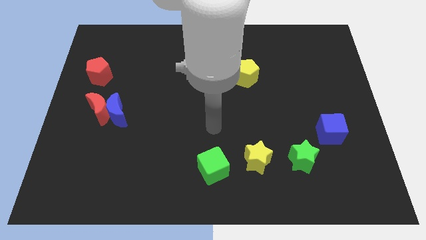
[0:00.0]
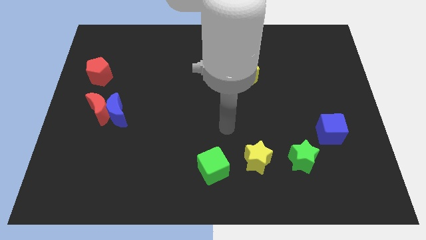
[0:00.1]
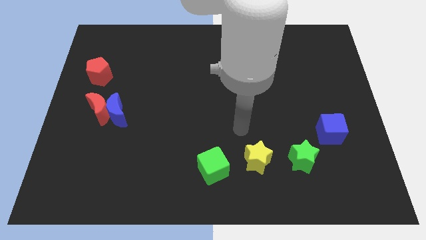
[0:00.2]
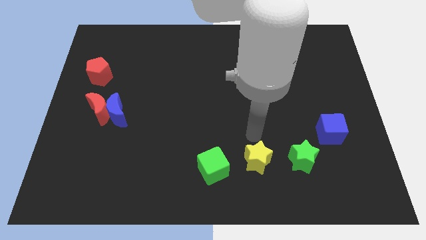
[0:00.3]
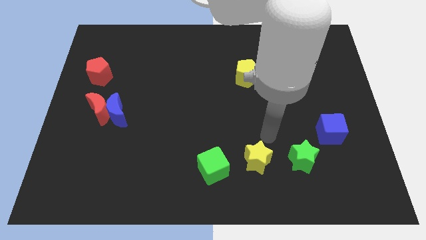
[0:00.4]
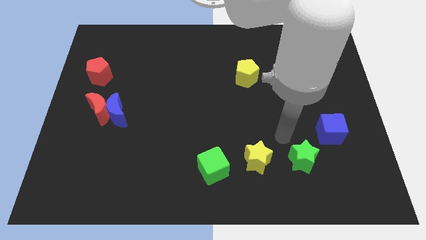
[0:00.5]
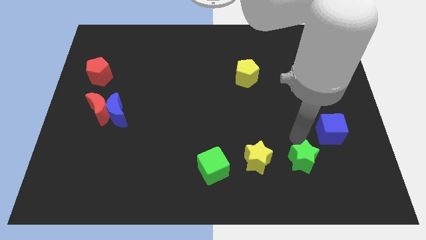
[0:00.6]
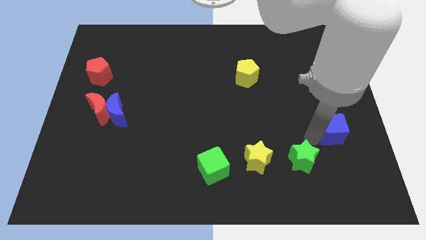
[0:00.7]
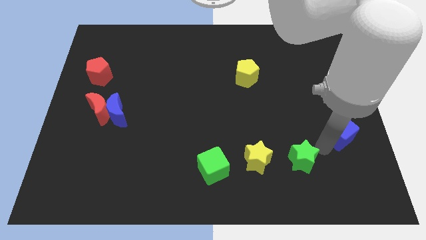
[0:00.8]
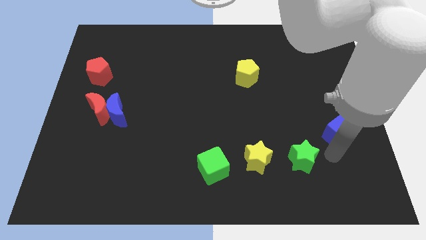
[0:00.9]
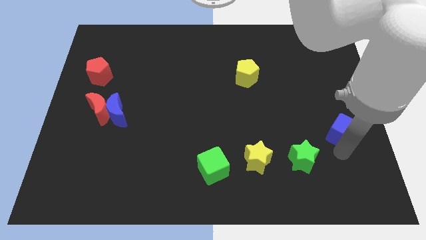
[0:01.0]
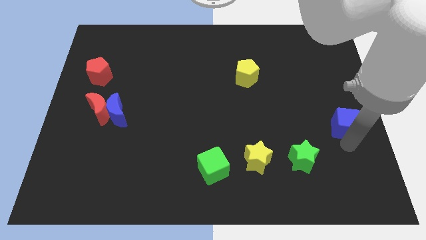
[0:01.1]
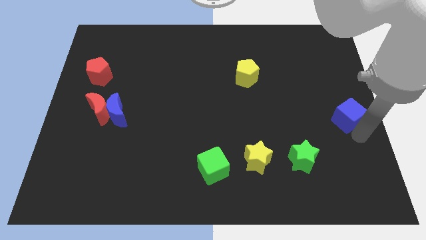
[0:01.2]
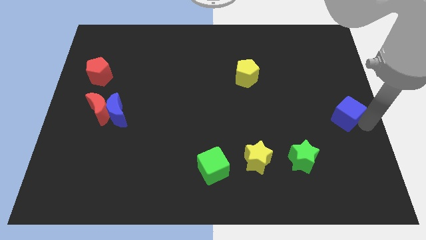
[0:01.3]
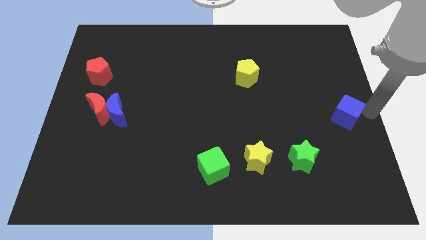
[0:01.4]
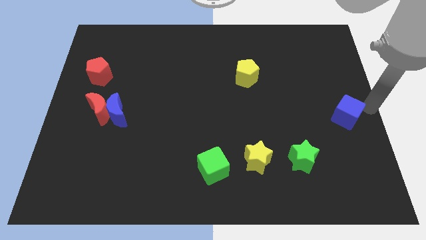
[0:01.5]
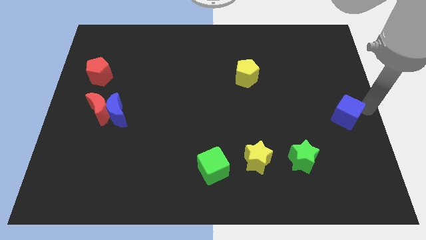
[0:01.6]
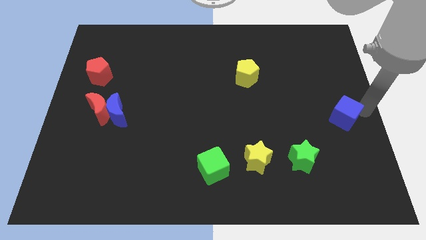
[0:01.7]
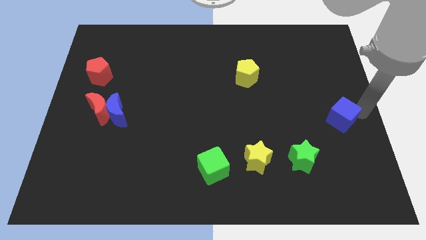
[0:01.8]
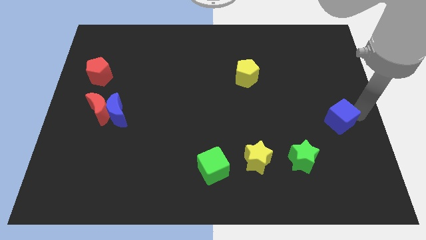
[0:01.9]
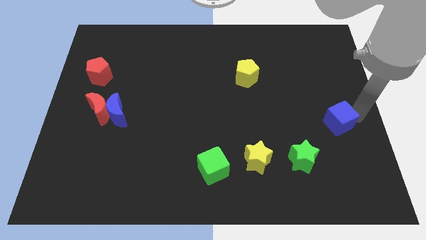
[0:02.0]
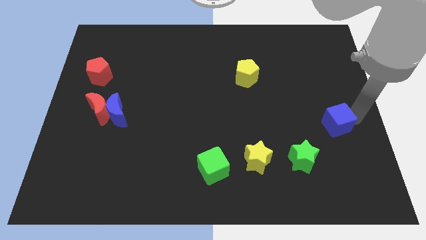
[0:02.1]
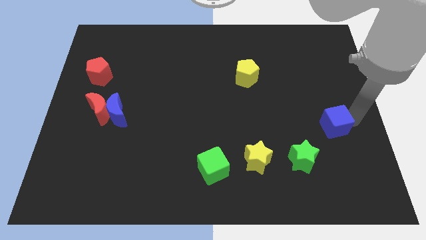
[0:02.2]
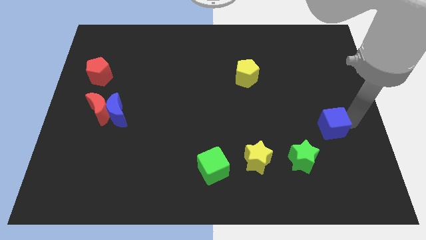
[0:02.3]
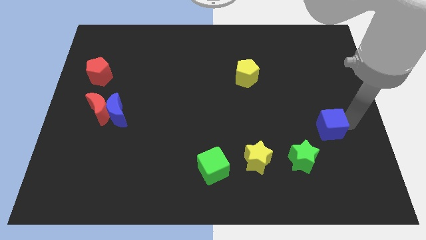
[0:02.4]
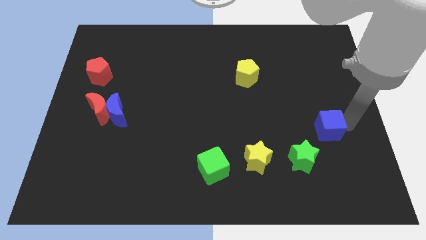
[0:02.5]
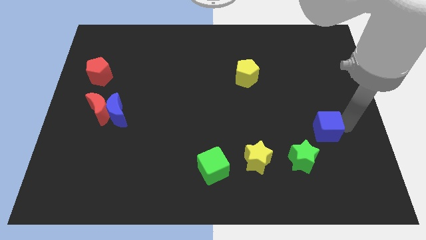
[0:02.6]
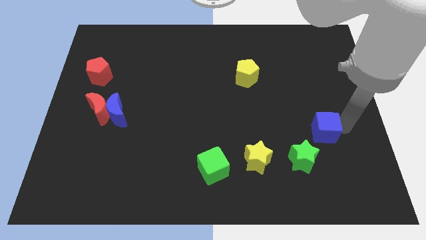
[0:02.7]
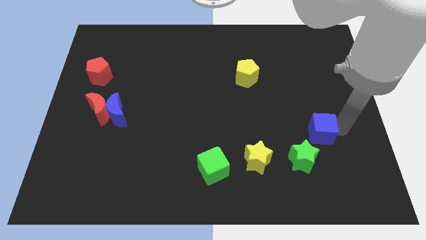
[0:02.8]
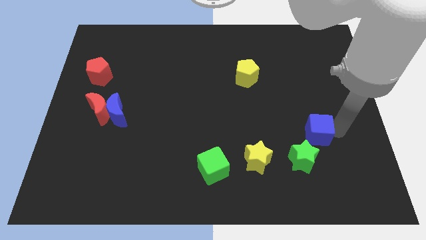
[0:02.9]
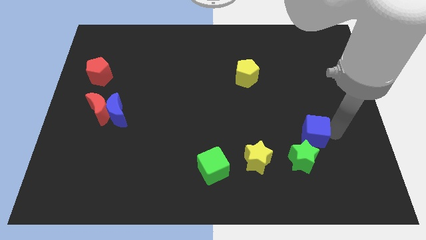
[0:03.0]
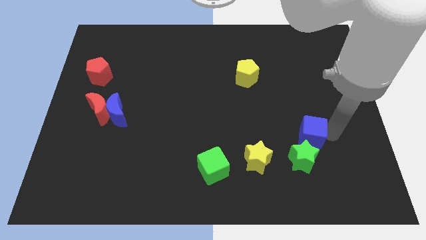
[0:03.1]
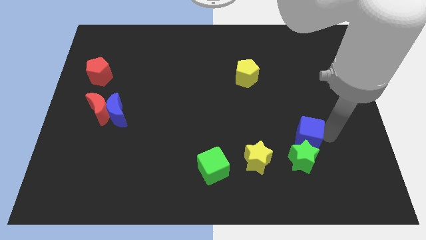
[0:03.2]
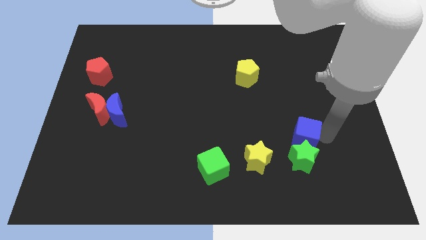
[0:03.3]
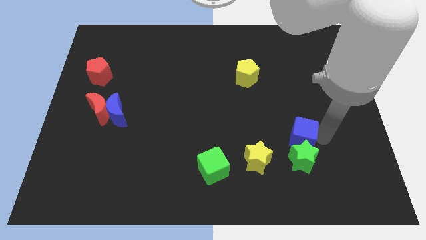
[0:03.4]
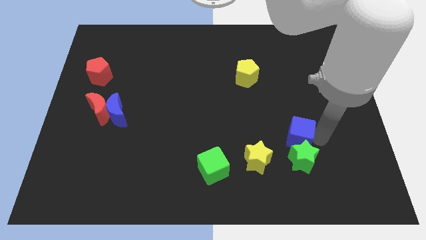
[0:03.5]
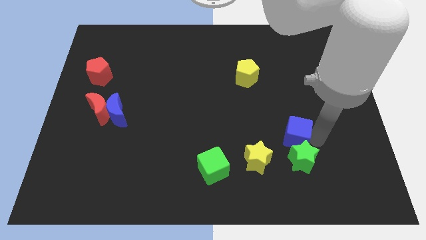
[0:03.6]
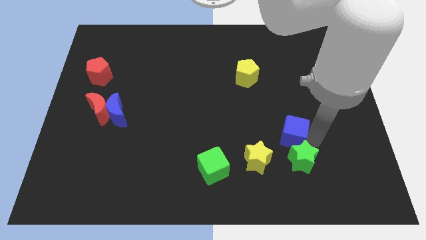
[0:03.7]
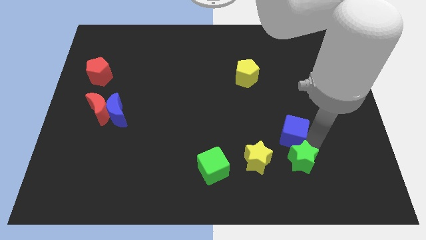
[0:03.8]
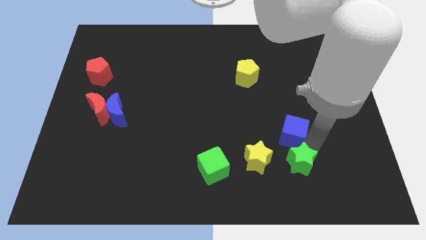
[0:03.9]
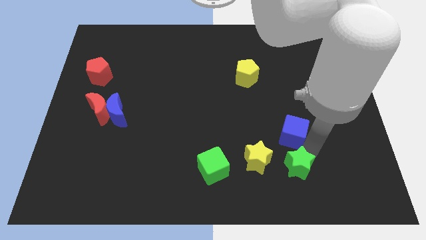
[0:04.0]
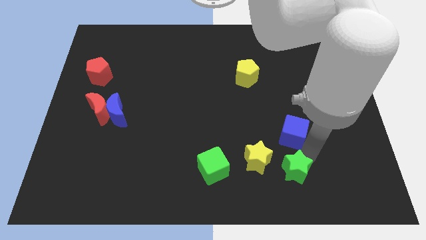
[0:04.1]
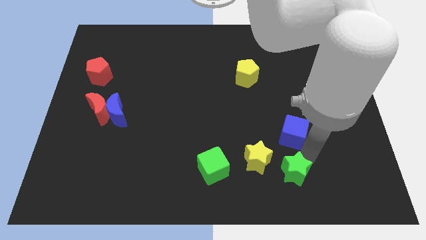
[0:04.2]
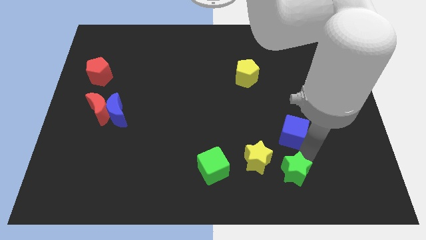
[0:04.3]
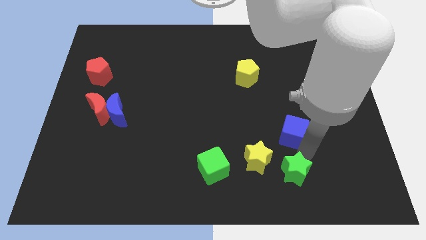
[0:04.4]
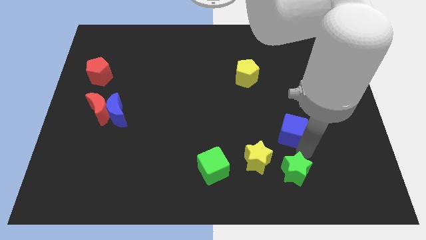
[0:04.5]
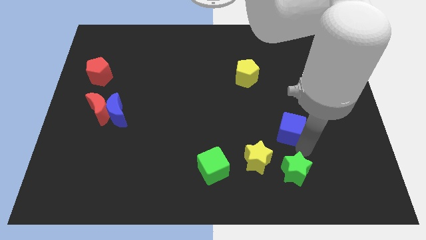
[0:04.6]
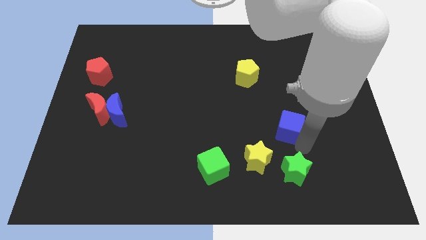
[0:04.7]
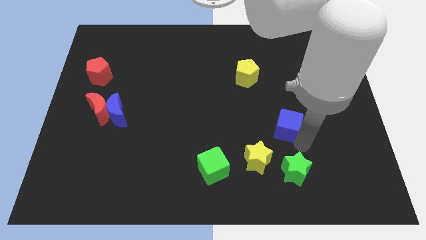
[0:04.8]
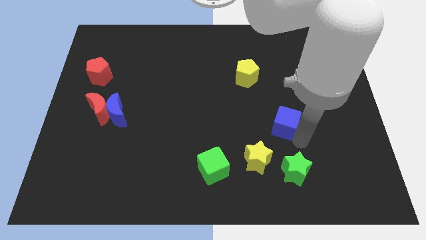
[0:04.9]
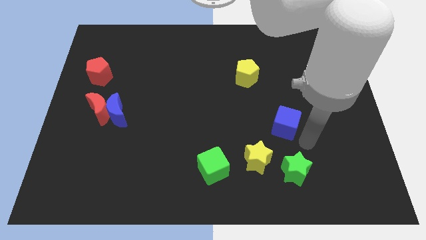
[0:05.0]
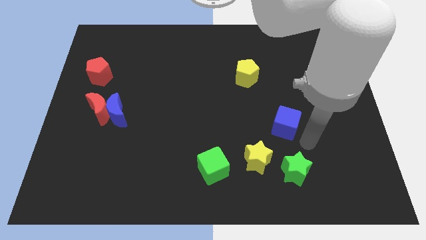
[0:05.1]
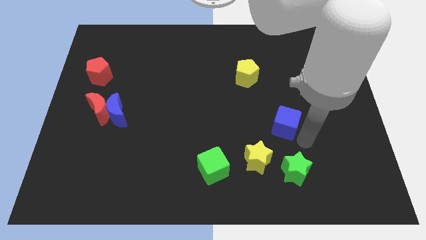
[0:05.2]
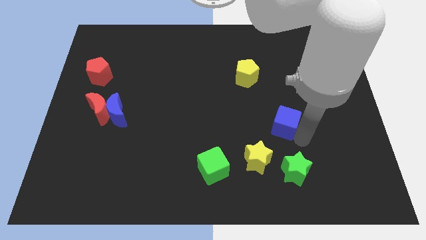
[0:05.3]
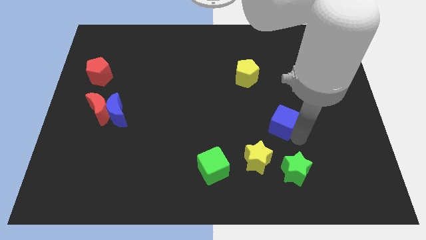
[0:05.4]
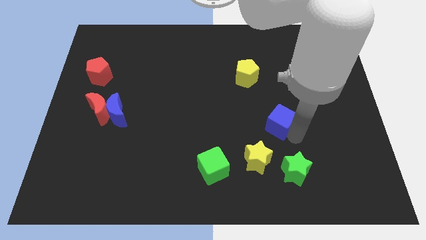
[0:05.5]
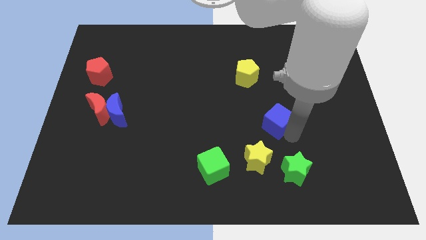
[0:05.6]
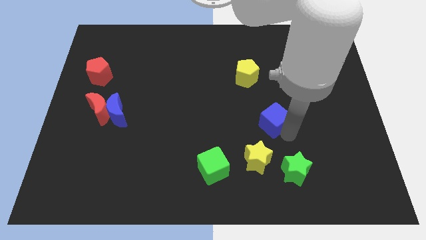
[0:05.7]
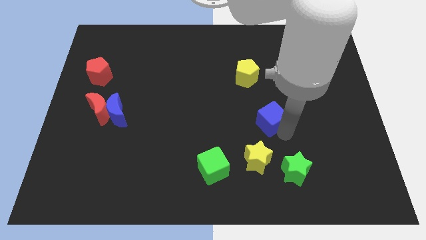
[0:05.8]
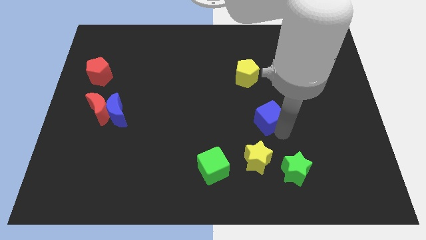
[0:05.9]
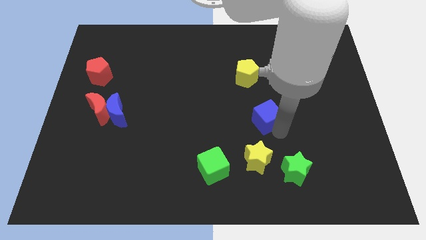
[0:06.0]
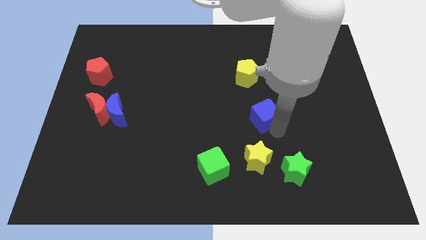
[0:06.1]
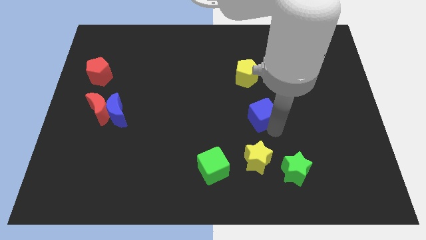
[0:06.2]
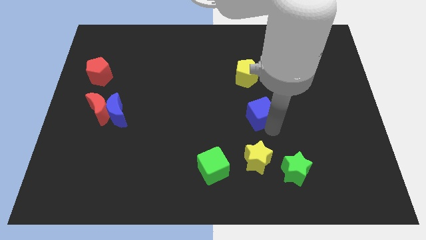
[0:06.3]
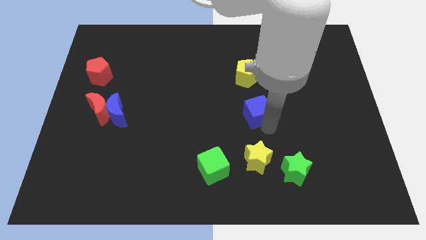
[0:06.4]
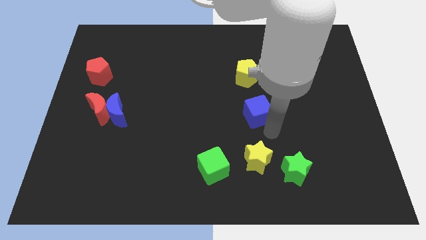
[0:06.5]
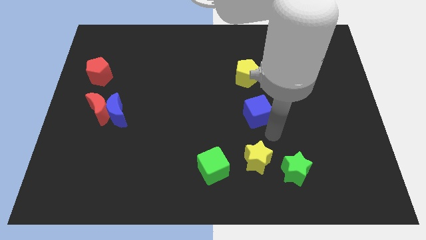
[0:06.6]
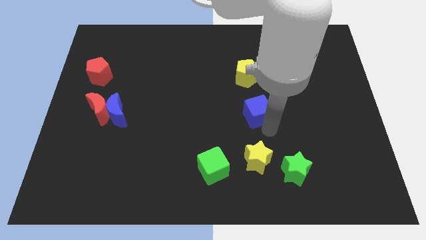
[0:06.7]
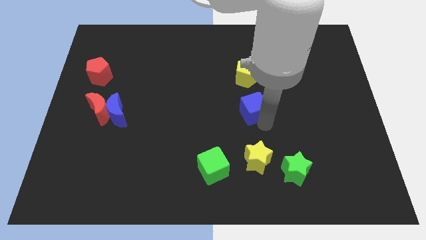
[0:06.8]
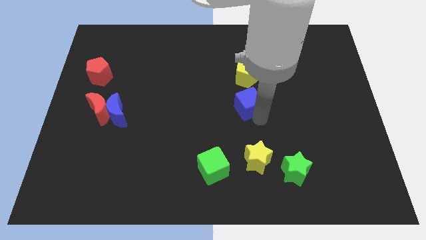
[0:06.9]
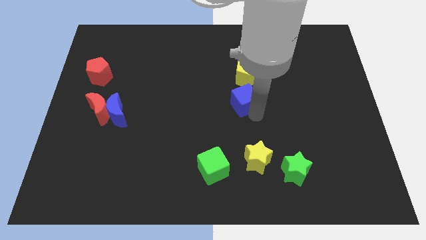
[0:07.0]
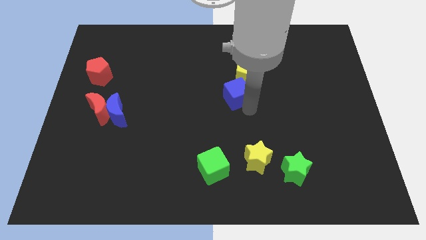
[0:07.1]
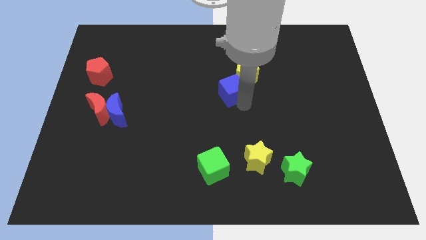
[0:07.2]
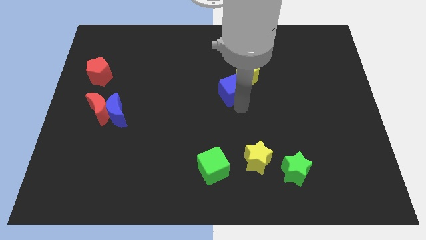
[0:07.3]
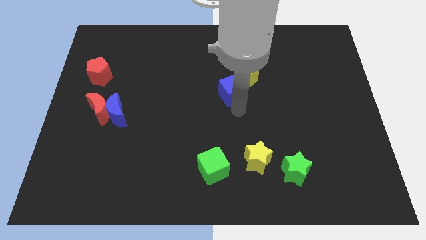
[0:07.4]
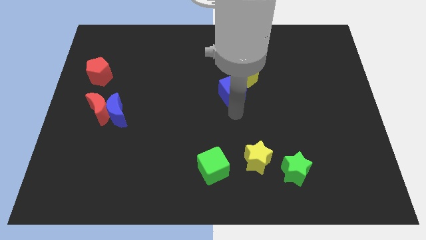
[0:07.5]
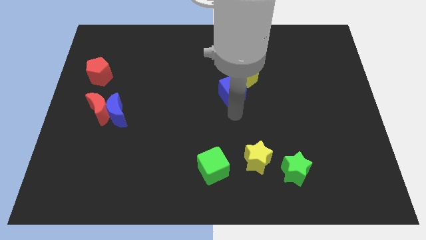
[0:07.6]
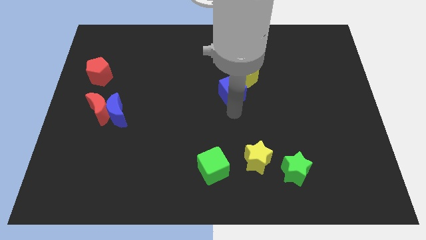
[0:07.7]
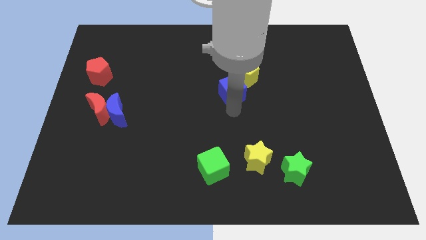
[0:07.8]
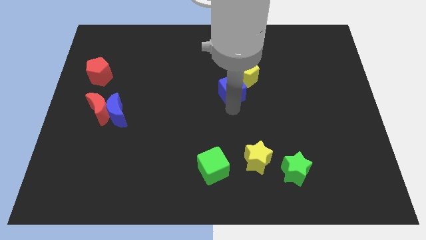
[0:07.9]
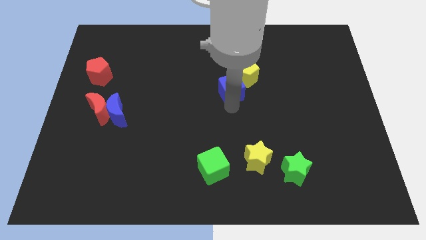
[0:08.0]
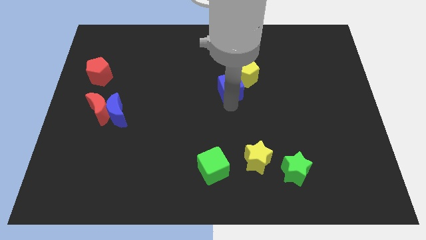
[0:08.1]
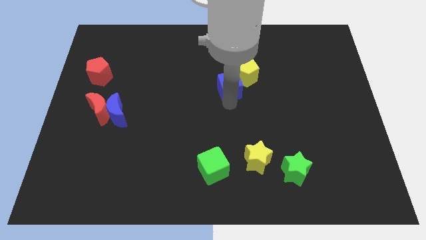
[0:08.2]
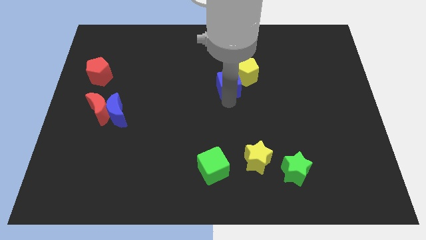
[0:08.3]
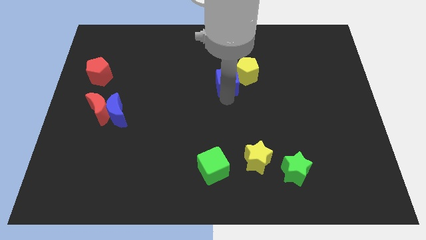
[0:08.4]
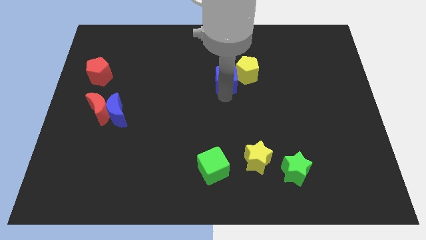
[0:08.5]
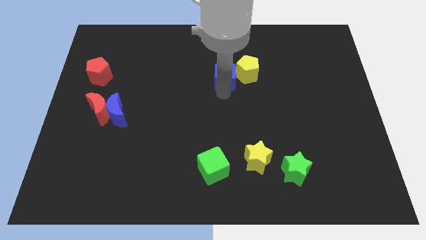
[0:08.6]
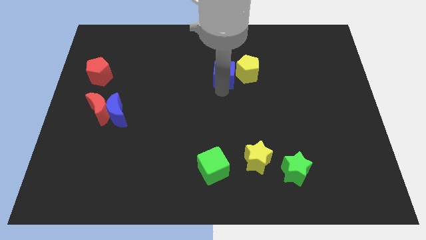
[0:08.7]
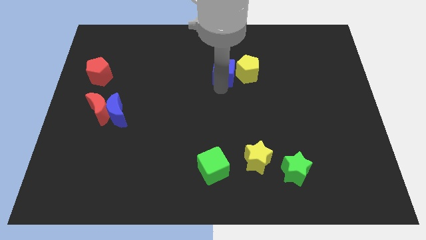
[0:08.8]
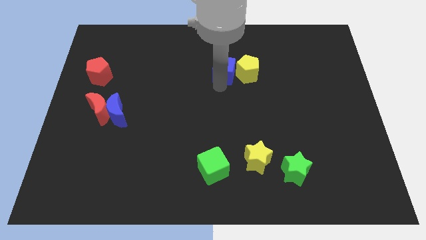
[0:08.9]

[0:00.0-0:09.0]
put the blue cube to the top left side of the yellow pentagon
